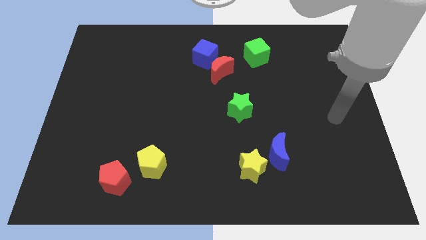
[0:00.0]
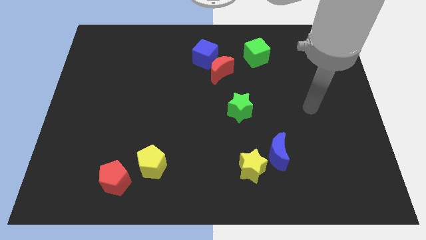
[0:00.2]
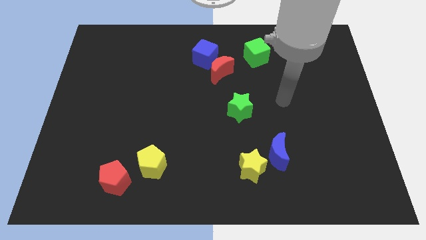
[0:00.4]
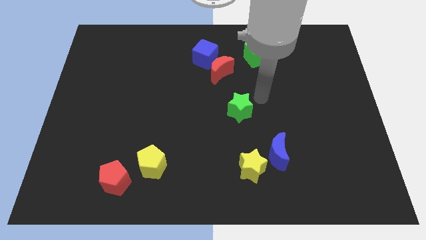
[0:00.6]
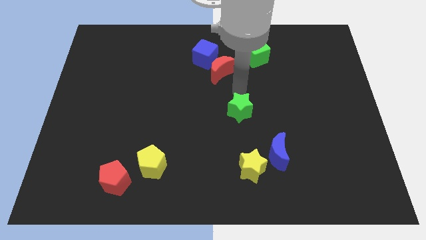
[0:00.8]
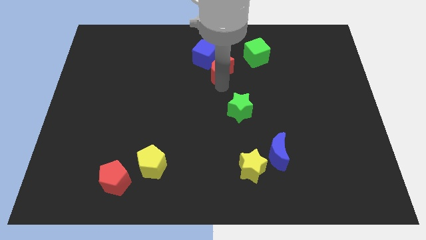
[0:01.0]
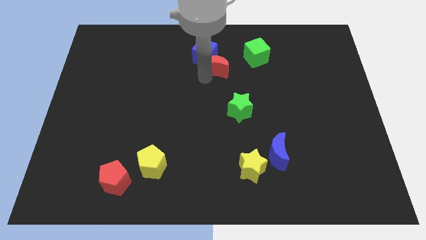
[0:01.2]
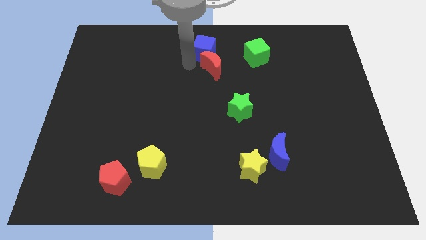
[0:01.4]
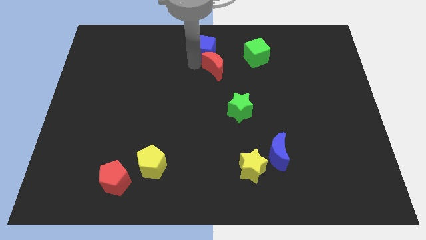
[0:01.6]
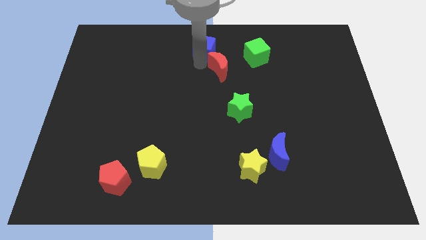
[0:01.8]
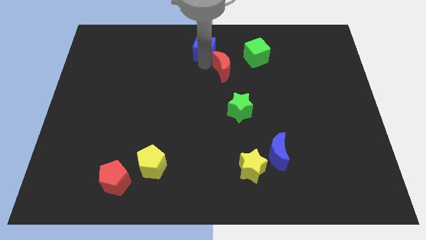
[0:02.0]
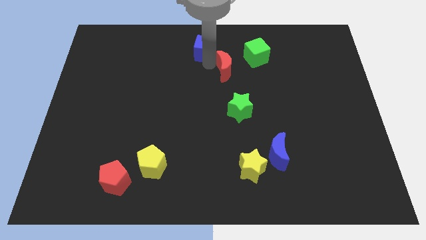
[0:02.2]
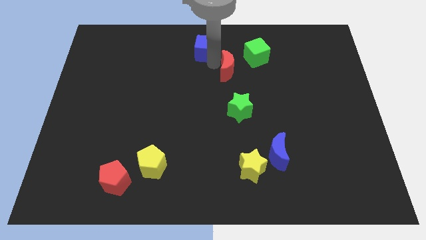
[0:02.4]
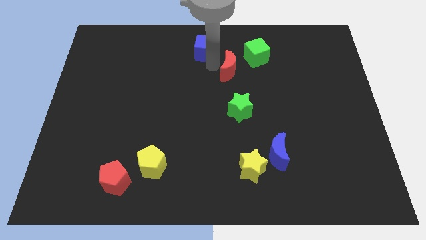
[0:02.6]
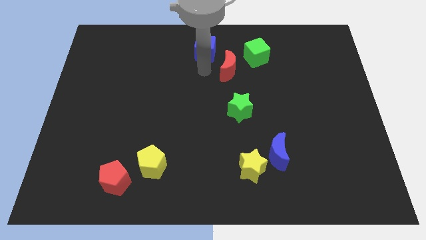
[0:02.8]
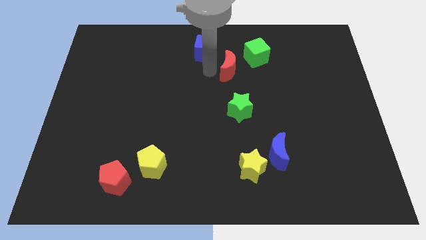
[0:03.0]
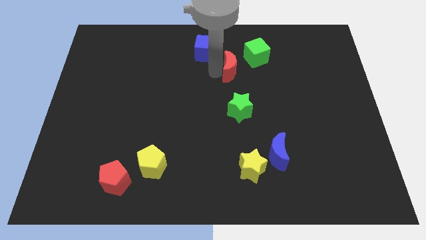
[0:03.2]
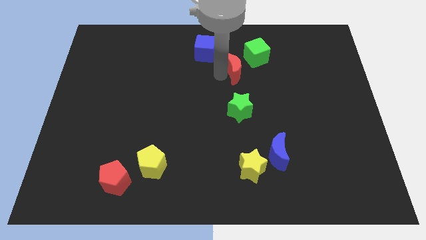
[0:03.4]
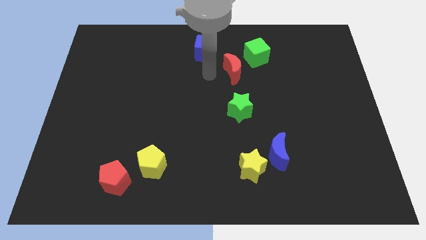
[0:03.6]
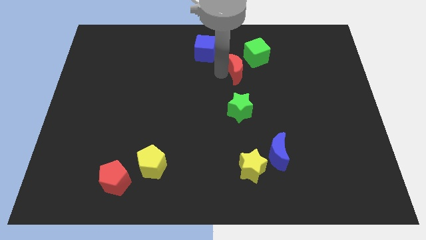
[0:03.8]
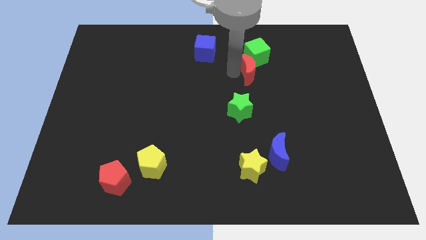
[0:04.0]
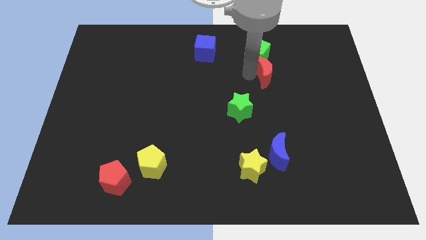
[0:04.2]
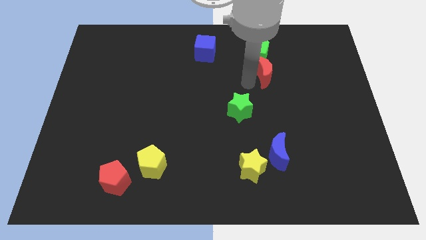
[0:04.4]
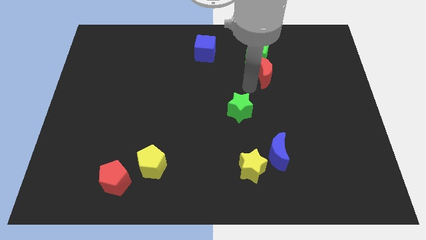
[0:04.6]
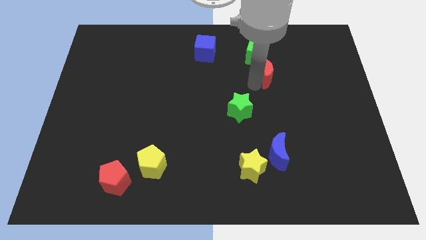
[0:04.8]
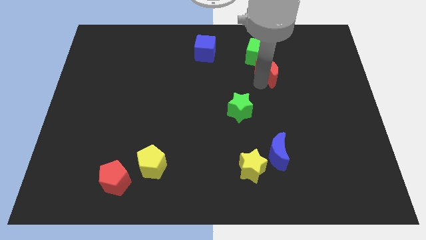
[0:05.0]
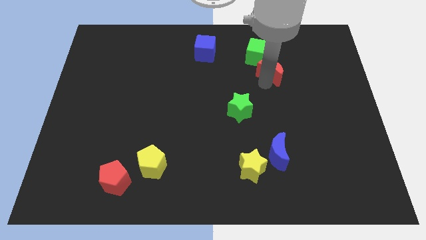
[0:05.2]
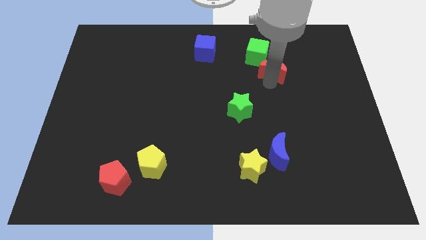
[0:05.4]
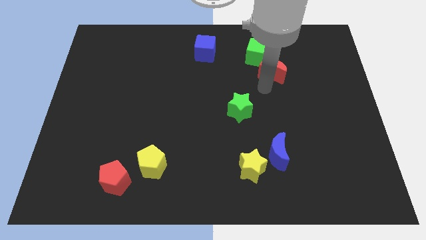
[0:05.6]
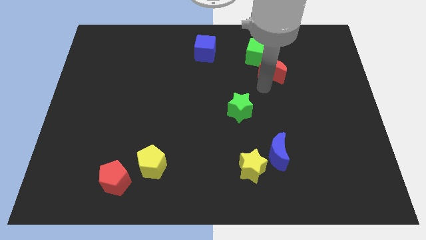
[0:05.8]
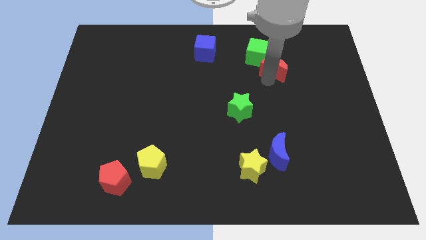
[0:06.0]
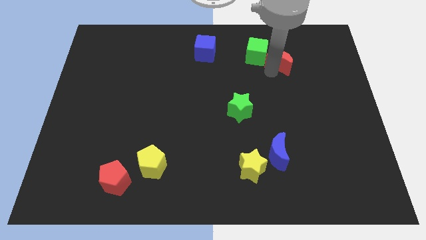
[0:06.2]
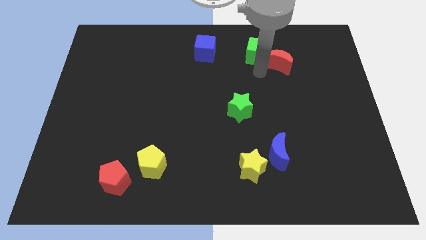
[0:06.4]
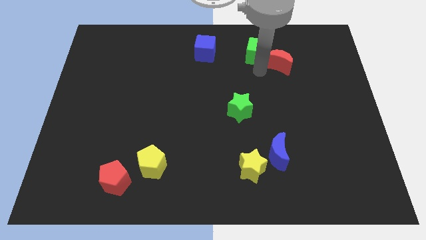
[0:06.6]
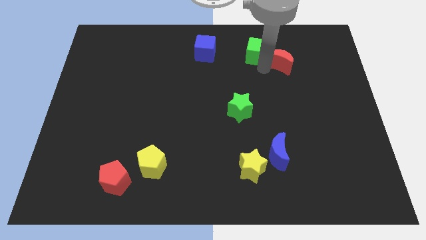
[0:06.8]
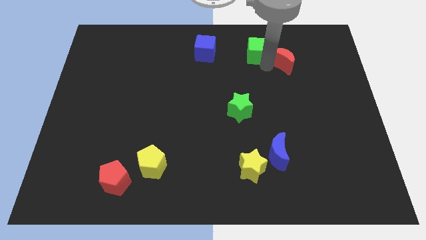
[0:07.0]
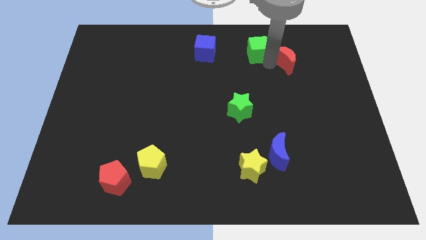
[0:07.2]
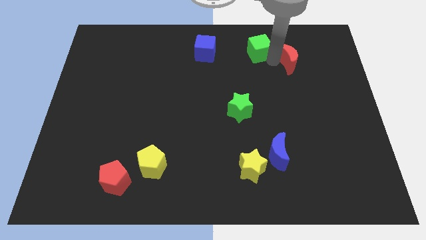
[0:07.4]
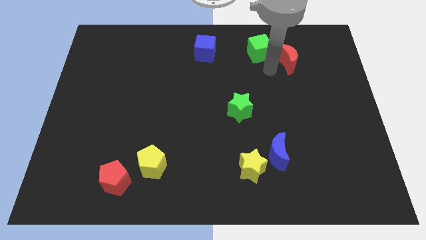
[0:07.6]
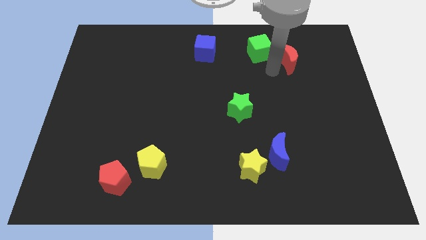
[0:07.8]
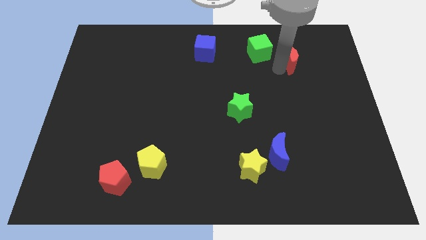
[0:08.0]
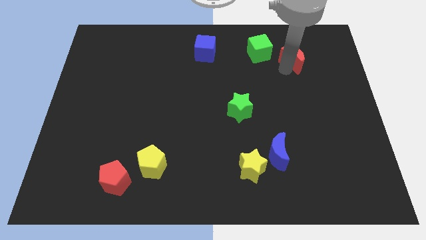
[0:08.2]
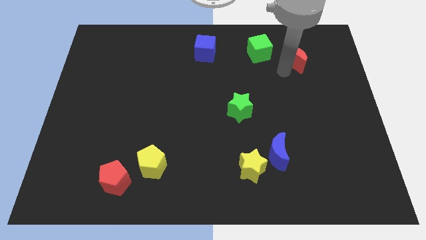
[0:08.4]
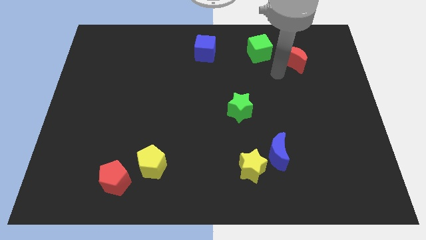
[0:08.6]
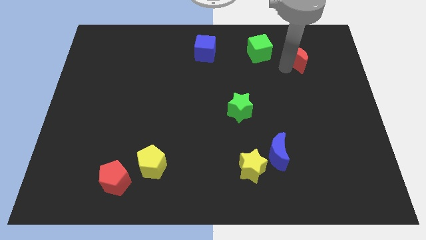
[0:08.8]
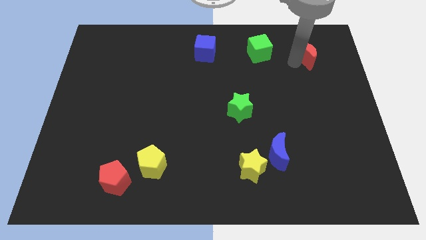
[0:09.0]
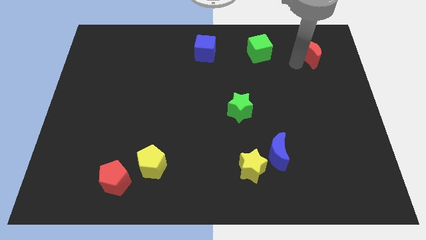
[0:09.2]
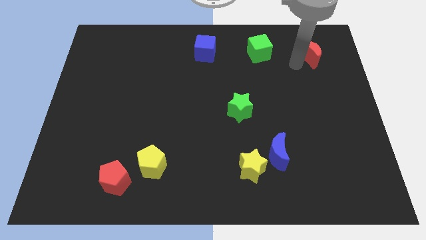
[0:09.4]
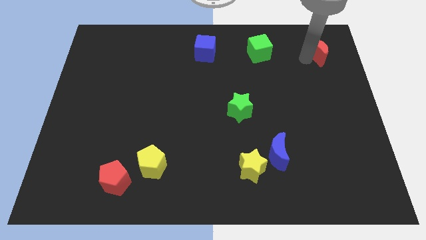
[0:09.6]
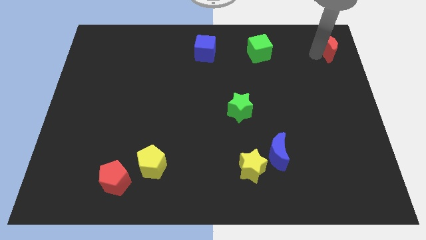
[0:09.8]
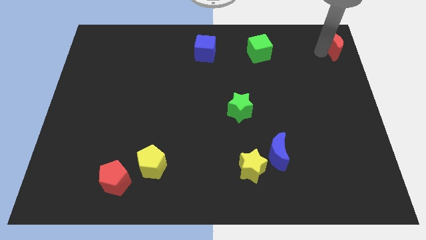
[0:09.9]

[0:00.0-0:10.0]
slide the red moon to the upper right corner

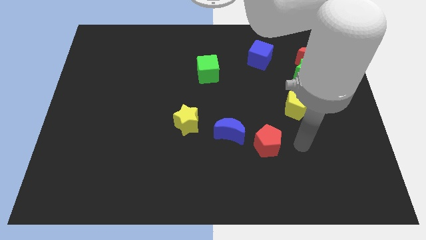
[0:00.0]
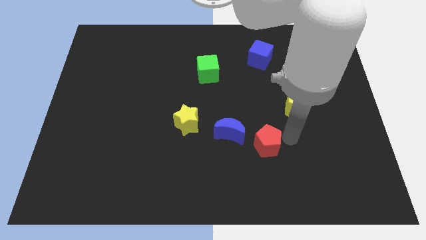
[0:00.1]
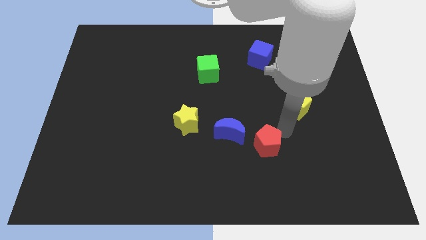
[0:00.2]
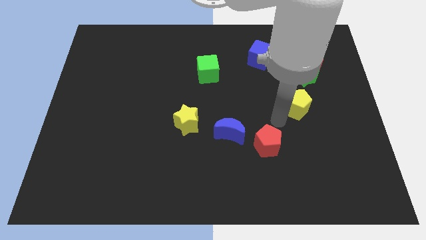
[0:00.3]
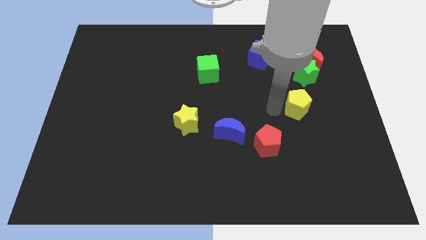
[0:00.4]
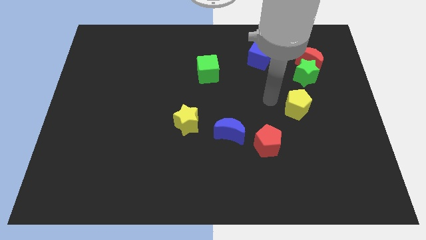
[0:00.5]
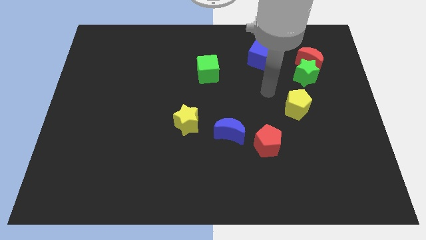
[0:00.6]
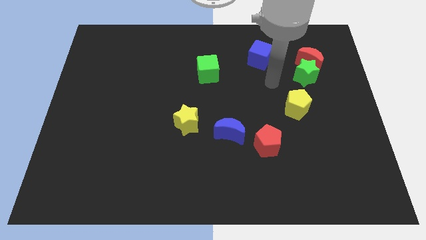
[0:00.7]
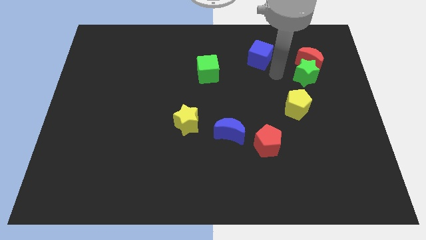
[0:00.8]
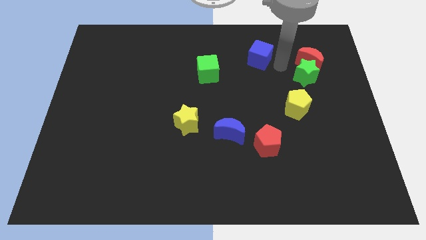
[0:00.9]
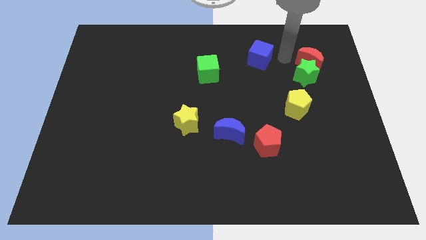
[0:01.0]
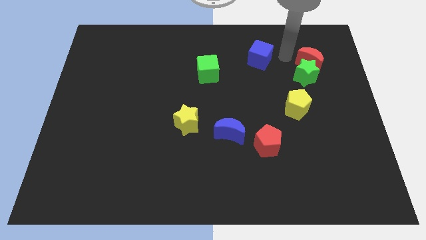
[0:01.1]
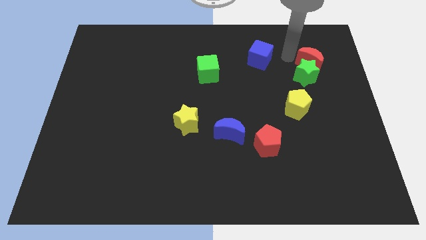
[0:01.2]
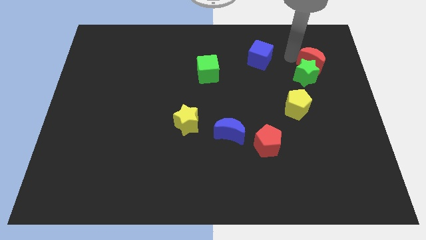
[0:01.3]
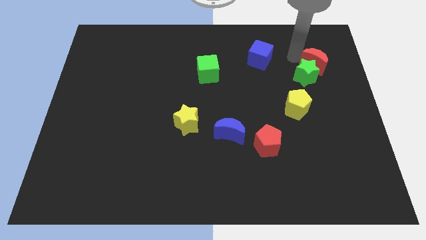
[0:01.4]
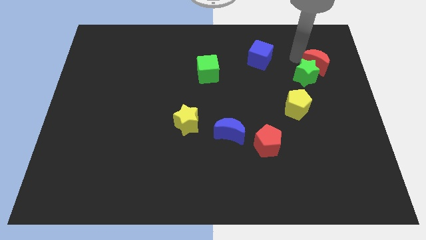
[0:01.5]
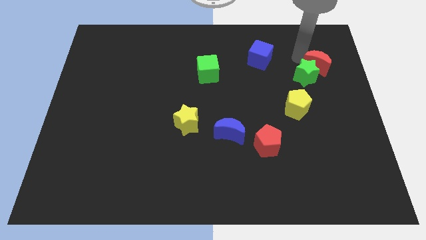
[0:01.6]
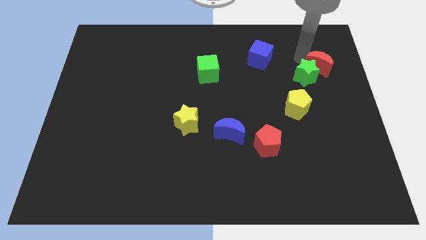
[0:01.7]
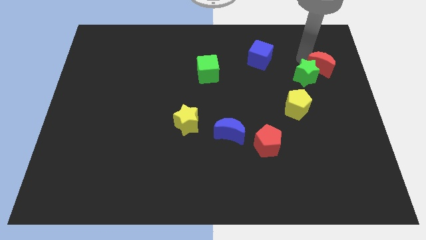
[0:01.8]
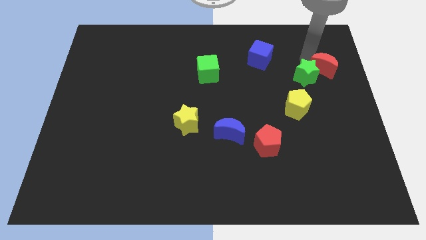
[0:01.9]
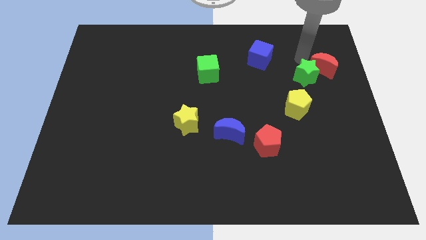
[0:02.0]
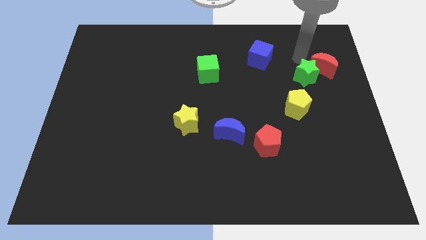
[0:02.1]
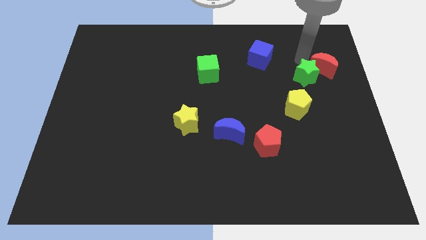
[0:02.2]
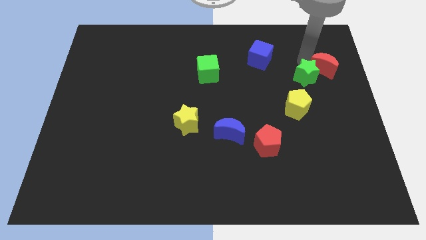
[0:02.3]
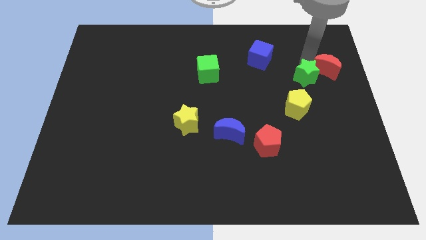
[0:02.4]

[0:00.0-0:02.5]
slide the red moon to the right side of the board
